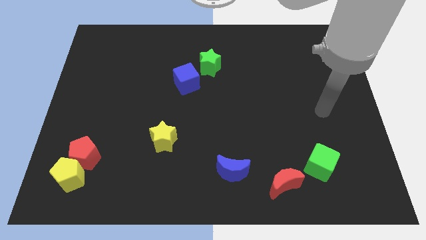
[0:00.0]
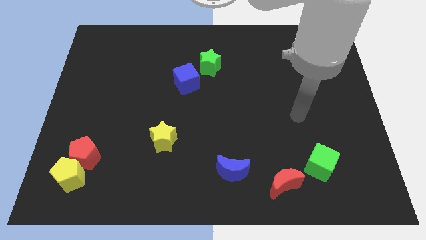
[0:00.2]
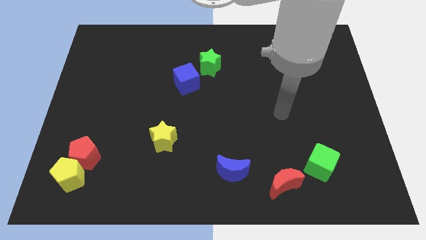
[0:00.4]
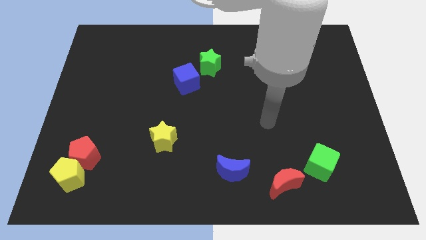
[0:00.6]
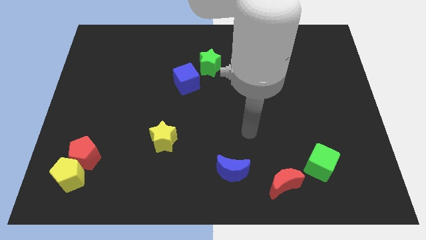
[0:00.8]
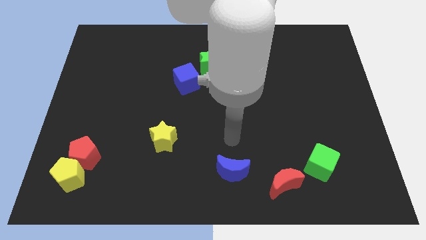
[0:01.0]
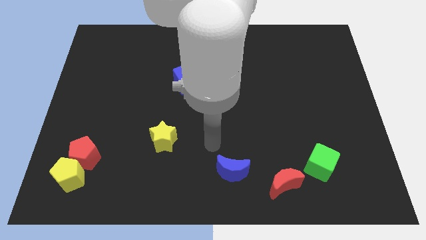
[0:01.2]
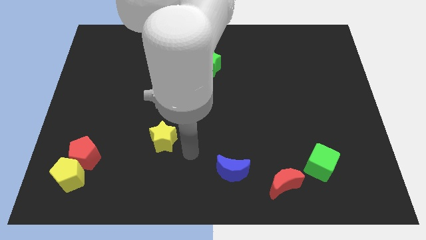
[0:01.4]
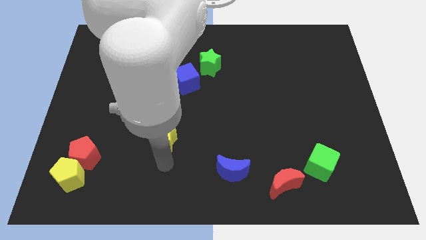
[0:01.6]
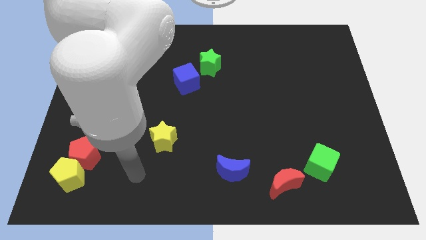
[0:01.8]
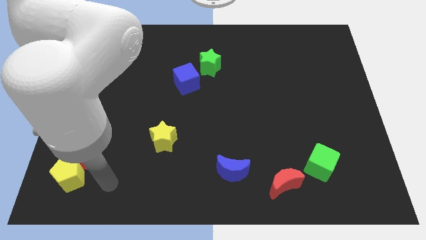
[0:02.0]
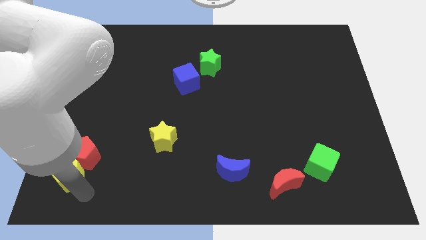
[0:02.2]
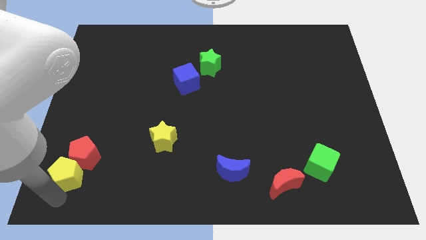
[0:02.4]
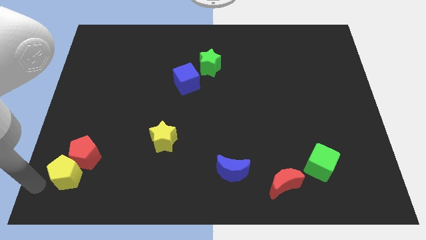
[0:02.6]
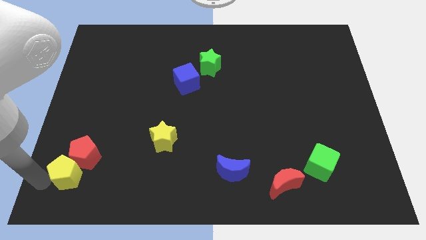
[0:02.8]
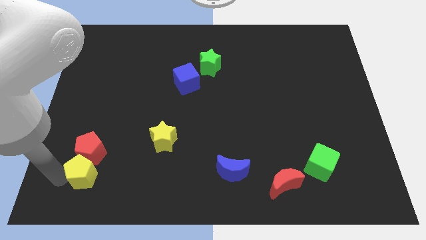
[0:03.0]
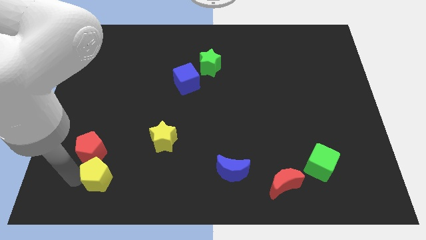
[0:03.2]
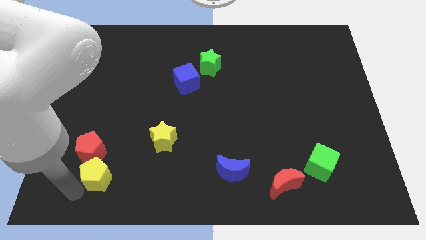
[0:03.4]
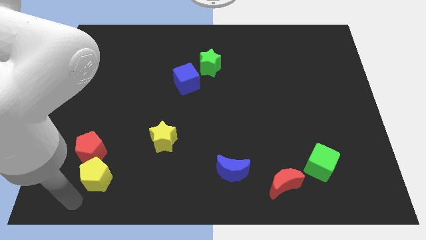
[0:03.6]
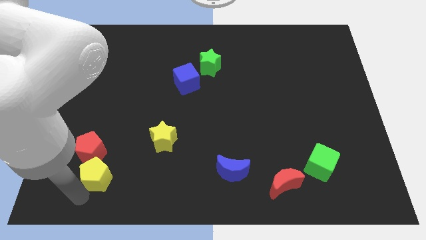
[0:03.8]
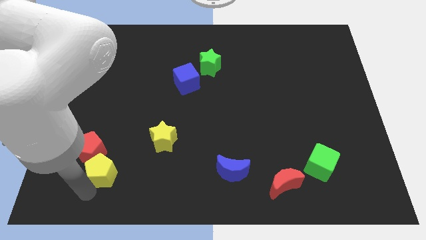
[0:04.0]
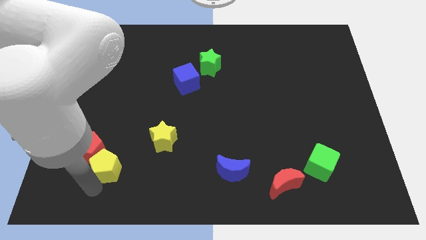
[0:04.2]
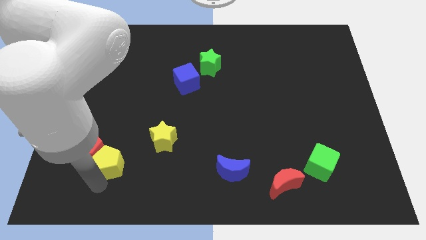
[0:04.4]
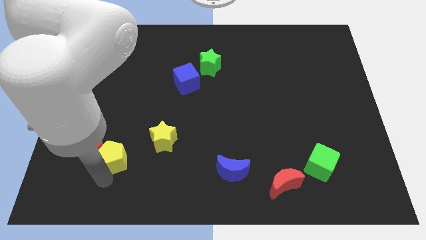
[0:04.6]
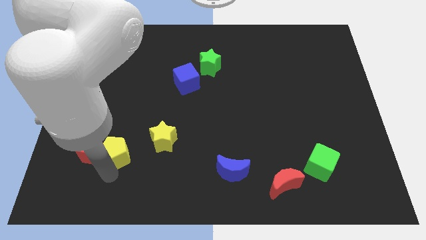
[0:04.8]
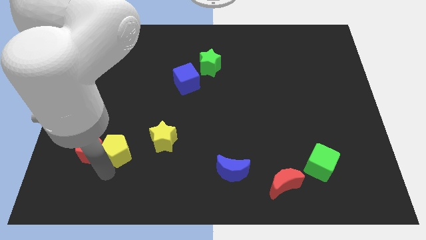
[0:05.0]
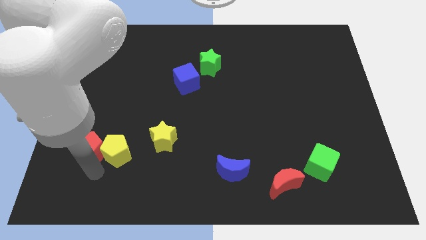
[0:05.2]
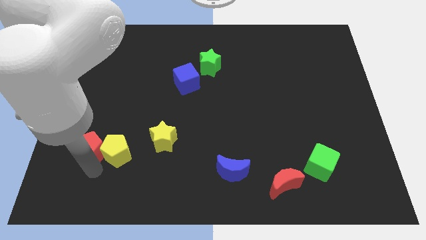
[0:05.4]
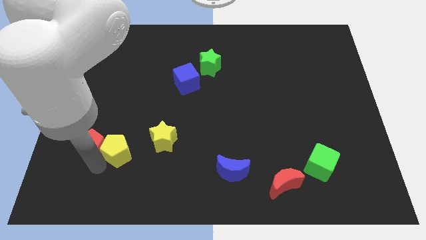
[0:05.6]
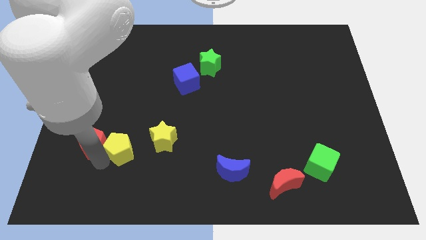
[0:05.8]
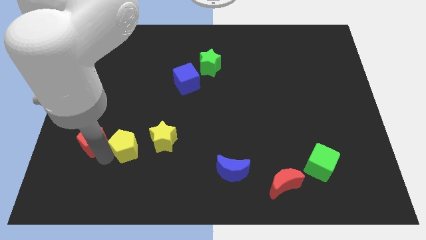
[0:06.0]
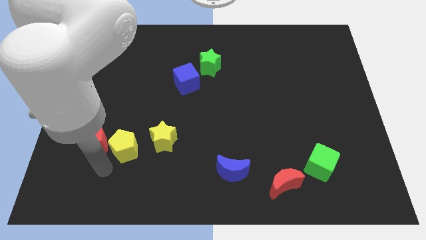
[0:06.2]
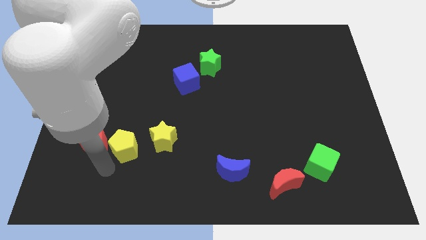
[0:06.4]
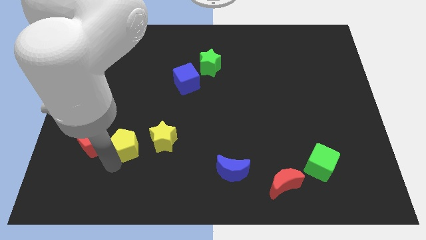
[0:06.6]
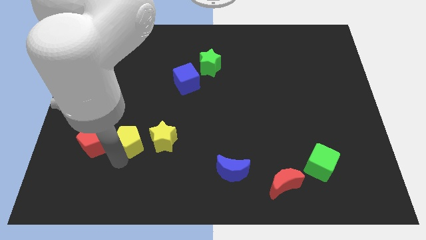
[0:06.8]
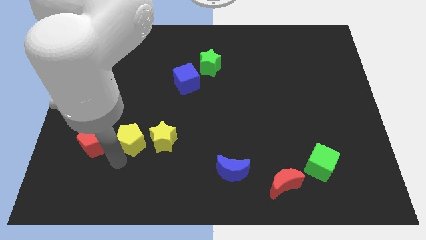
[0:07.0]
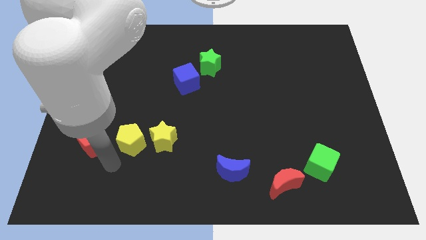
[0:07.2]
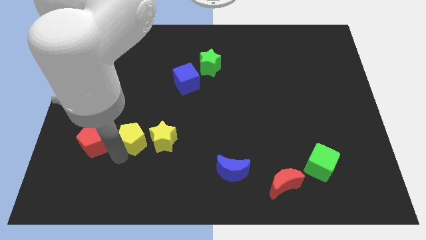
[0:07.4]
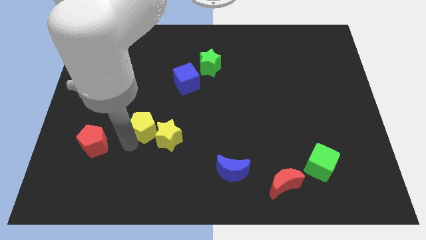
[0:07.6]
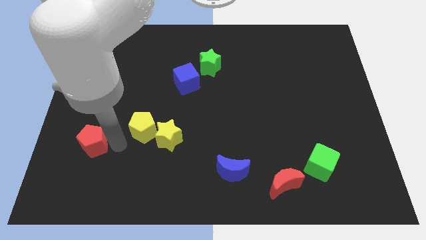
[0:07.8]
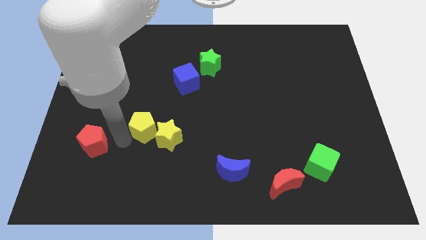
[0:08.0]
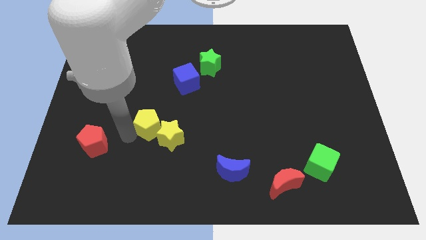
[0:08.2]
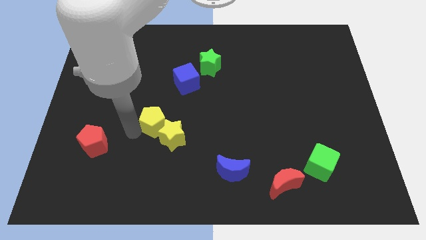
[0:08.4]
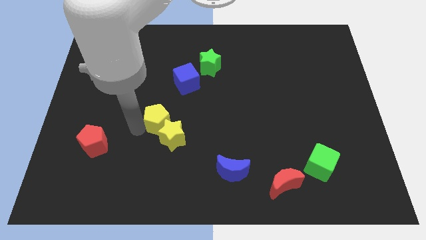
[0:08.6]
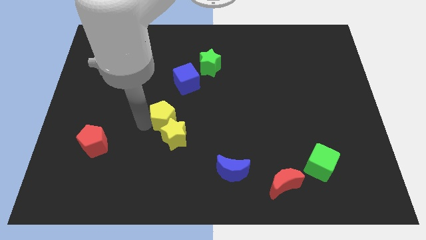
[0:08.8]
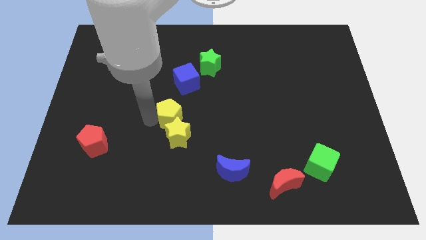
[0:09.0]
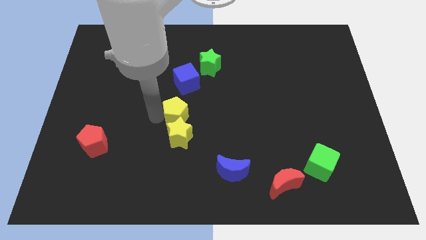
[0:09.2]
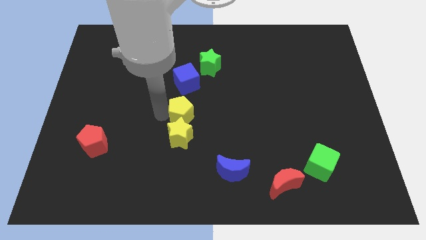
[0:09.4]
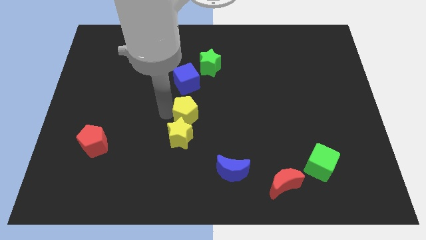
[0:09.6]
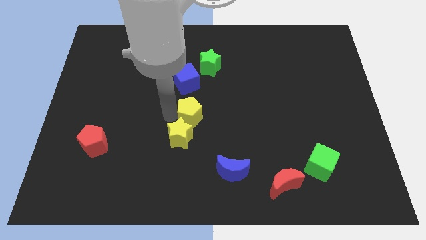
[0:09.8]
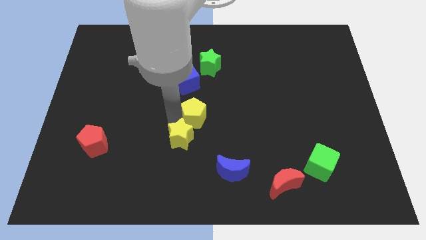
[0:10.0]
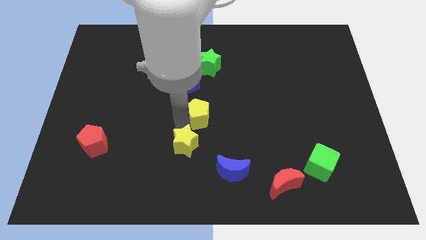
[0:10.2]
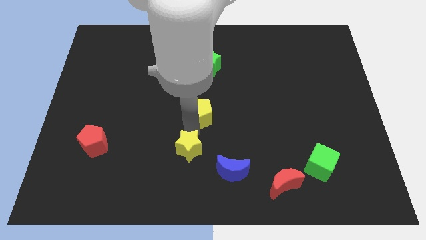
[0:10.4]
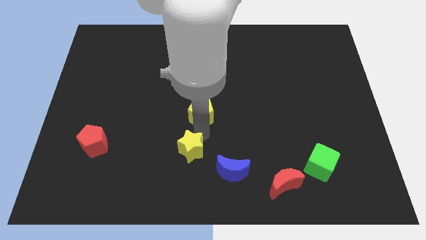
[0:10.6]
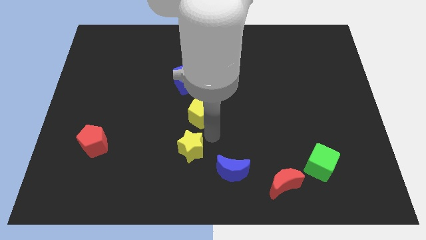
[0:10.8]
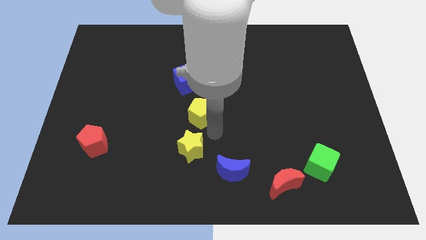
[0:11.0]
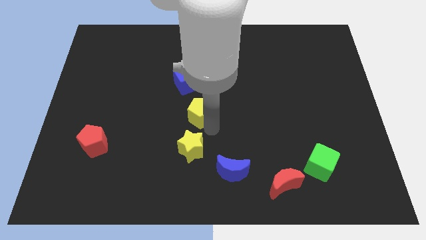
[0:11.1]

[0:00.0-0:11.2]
move the yellow pentagon to the bottom right of the blue cube

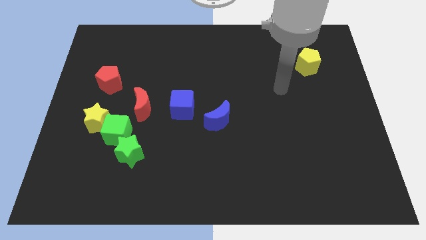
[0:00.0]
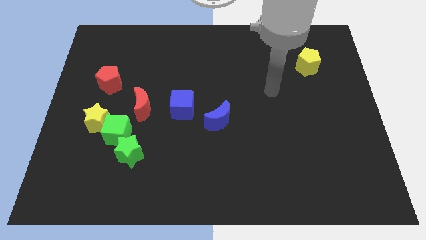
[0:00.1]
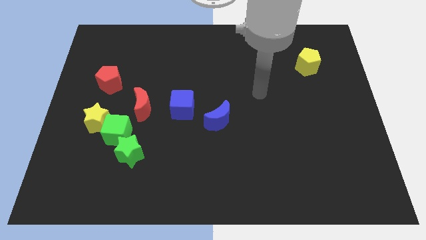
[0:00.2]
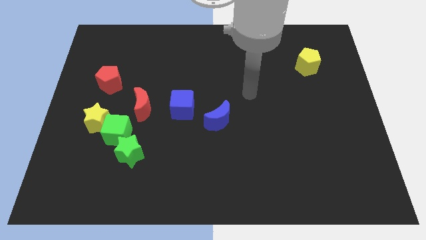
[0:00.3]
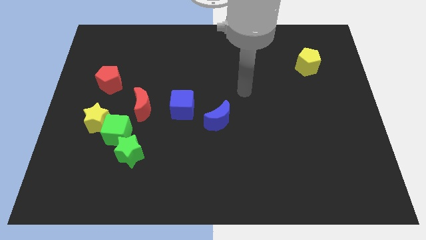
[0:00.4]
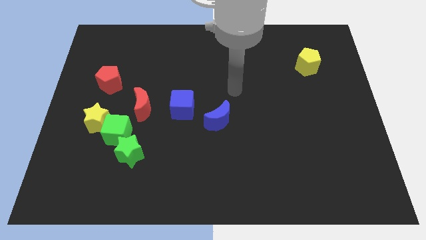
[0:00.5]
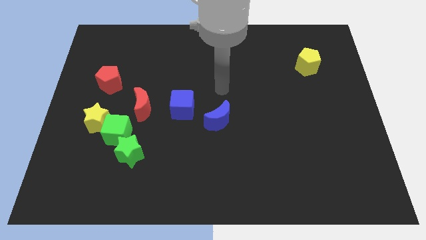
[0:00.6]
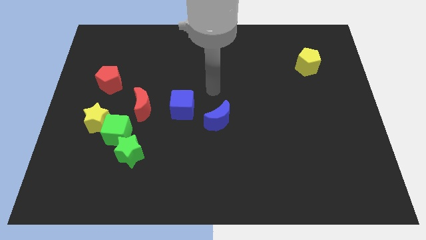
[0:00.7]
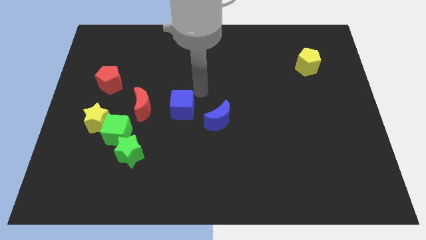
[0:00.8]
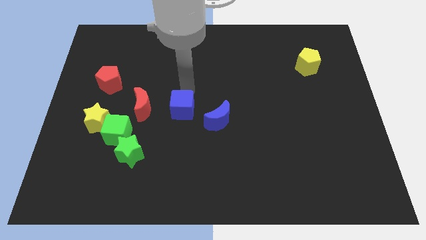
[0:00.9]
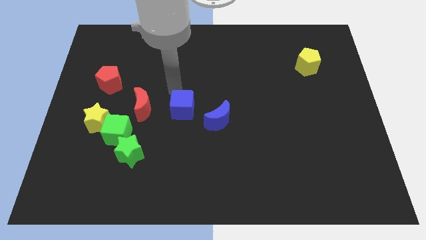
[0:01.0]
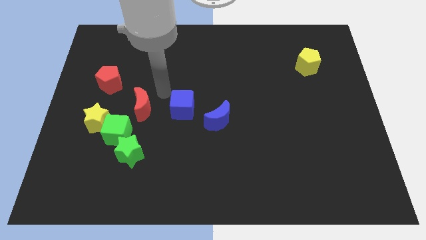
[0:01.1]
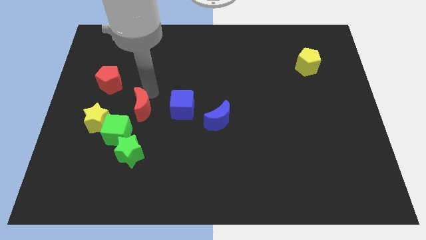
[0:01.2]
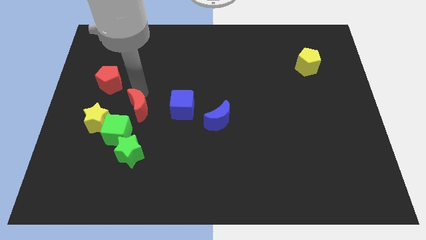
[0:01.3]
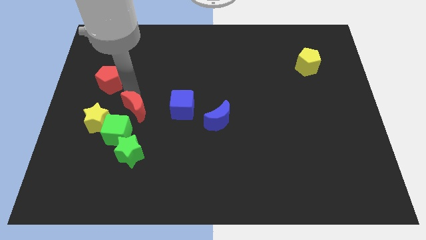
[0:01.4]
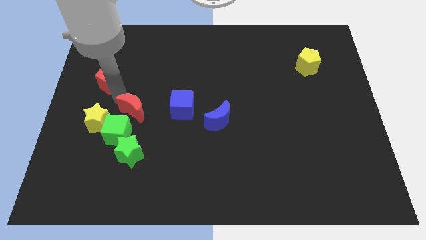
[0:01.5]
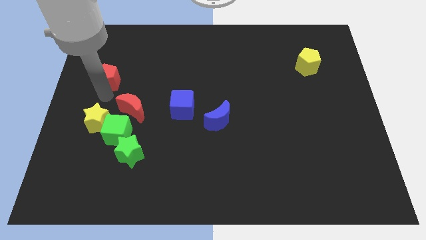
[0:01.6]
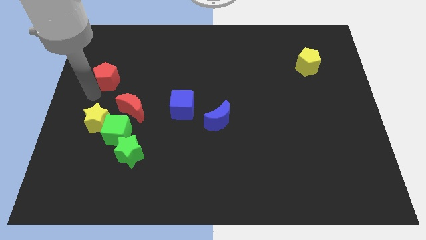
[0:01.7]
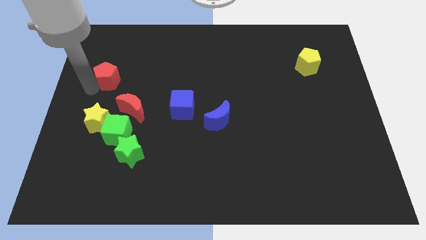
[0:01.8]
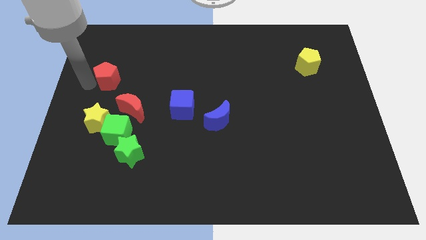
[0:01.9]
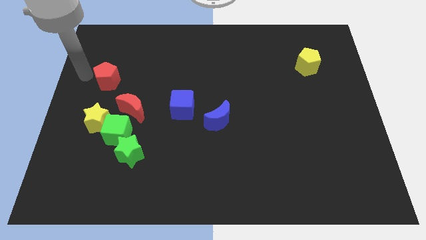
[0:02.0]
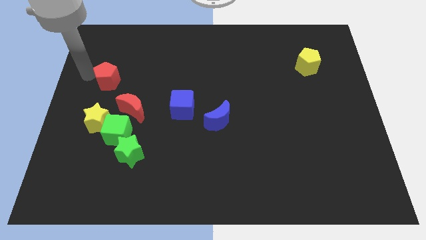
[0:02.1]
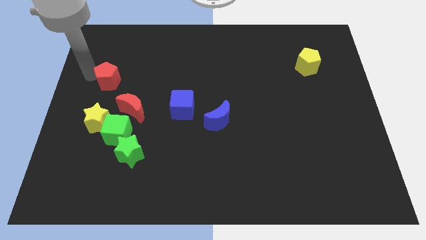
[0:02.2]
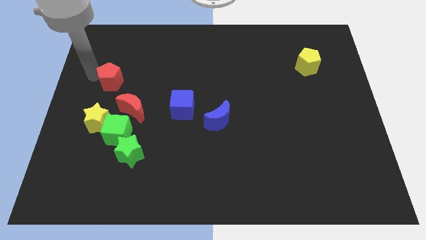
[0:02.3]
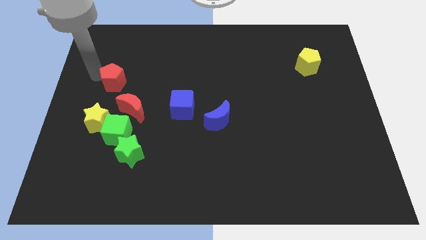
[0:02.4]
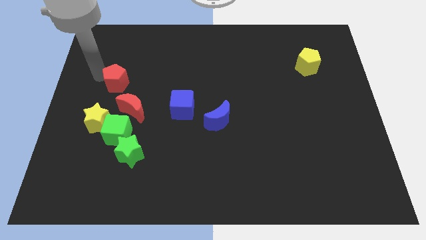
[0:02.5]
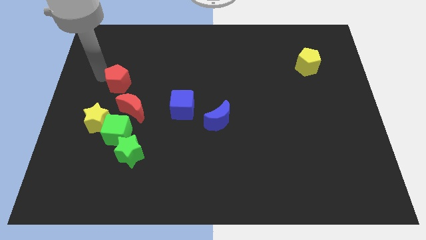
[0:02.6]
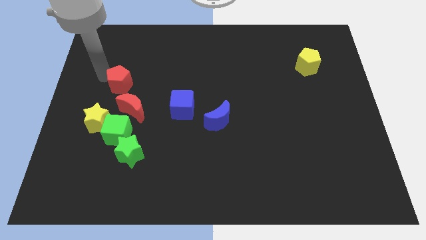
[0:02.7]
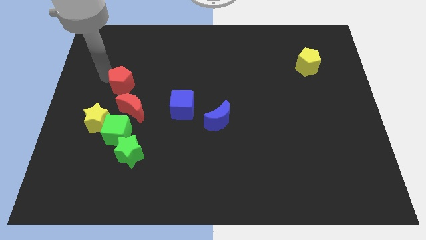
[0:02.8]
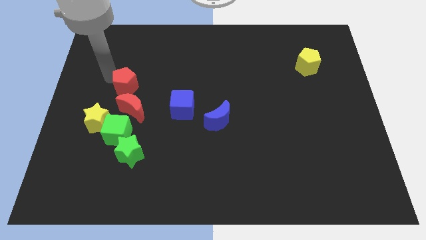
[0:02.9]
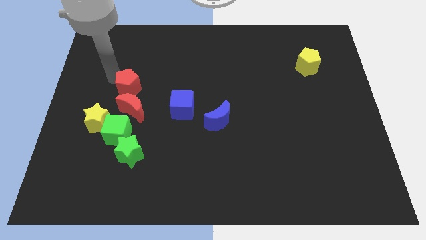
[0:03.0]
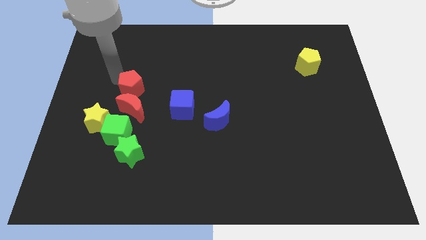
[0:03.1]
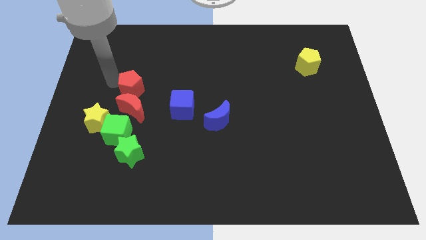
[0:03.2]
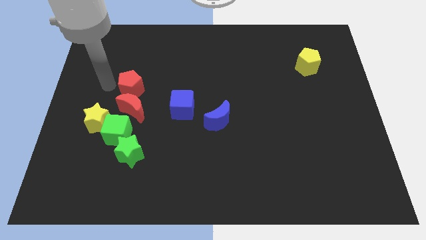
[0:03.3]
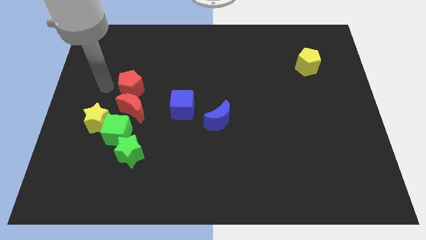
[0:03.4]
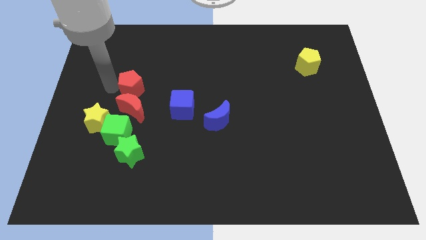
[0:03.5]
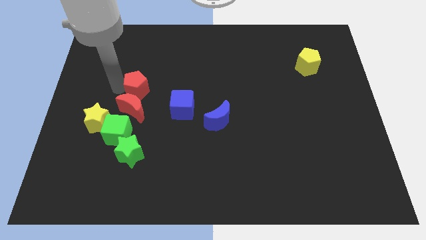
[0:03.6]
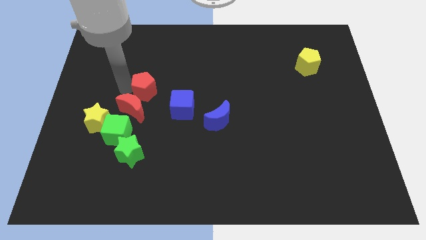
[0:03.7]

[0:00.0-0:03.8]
slide the red pentagon diagonally up and to the left of the blue cube
